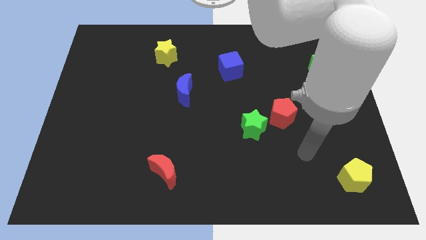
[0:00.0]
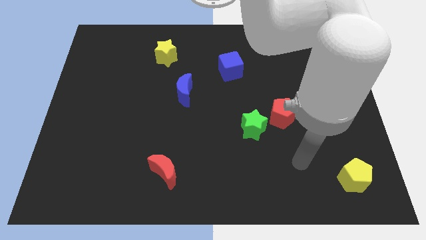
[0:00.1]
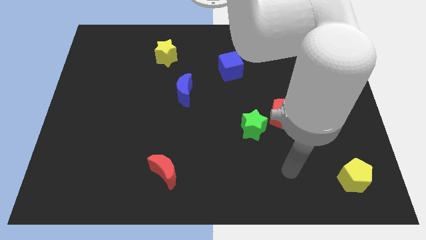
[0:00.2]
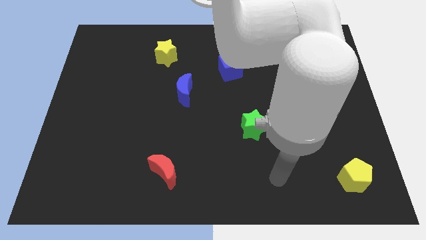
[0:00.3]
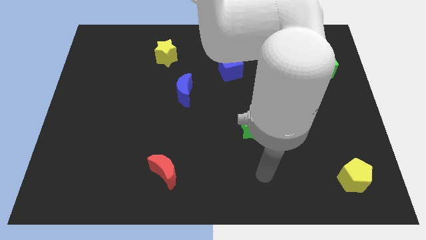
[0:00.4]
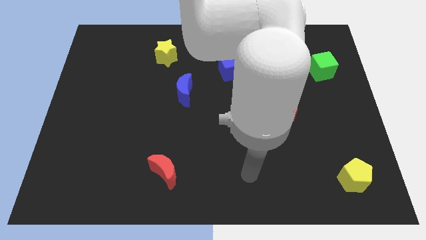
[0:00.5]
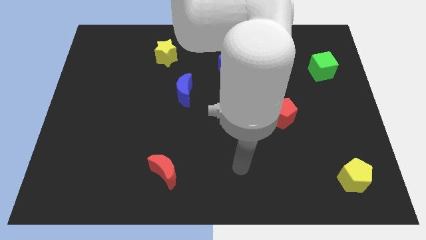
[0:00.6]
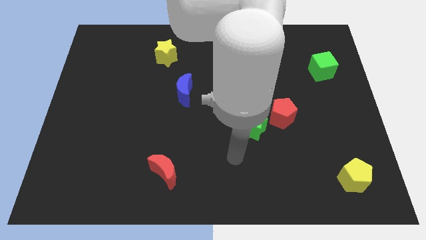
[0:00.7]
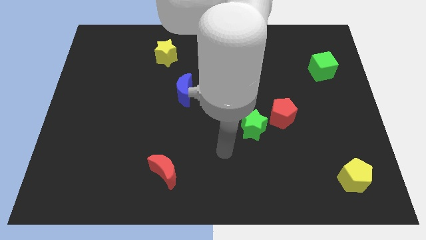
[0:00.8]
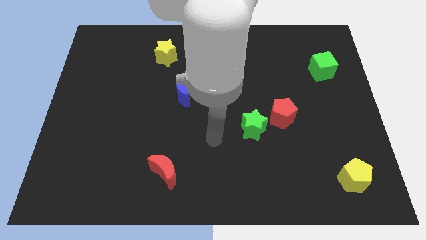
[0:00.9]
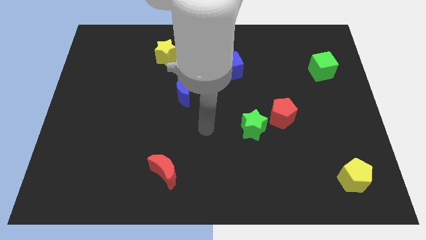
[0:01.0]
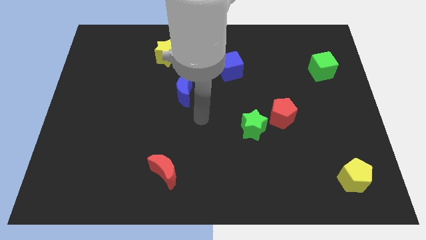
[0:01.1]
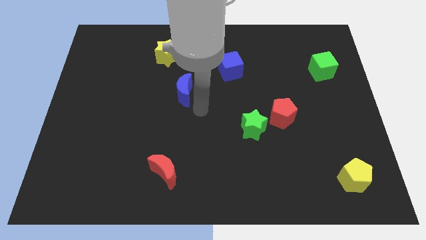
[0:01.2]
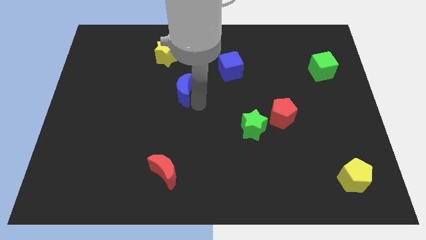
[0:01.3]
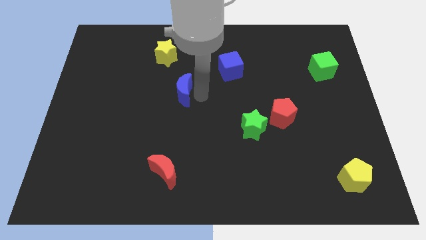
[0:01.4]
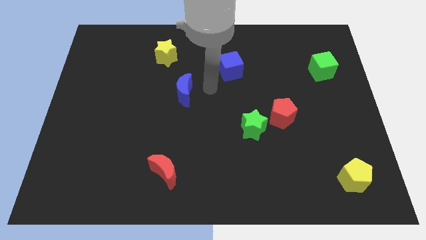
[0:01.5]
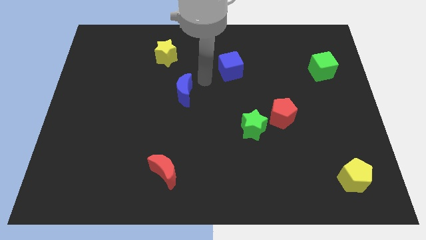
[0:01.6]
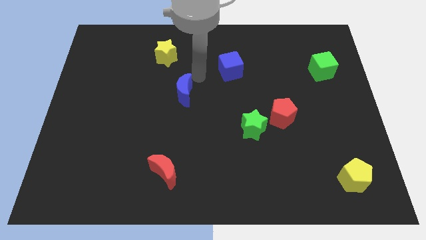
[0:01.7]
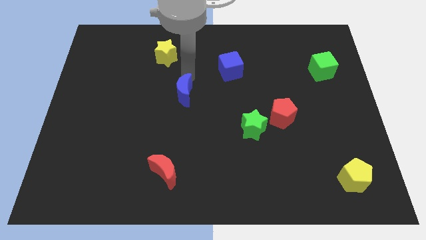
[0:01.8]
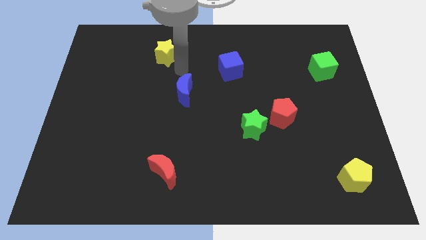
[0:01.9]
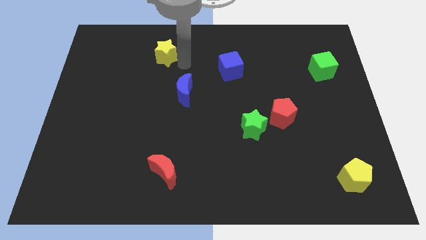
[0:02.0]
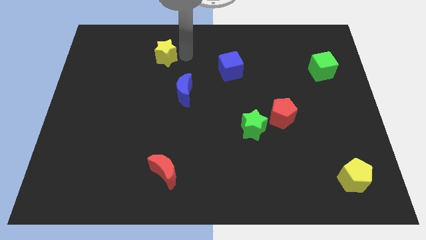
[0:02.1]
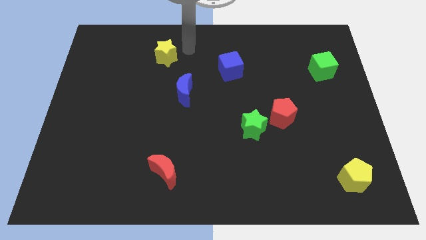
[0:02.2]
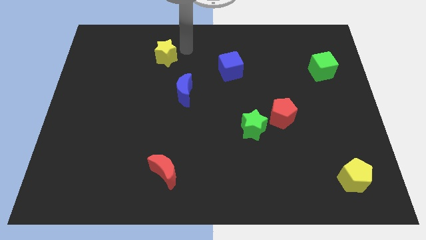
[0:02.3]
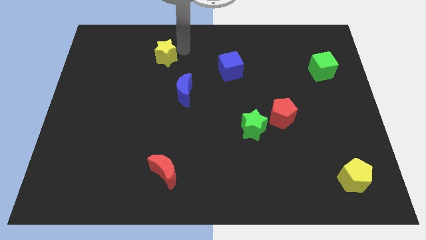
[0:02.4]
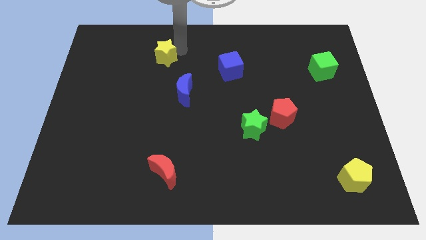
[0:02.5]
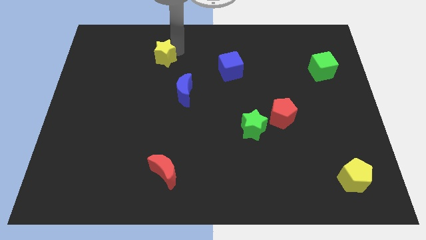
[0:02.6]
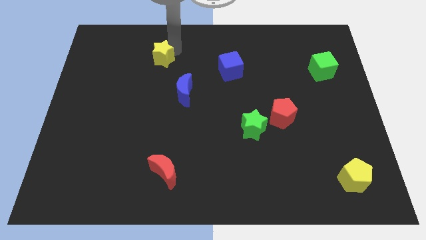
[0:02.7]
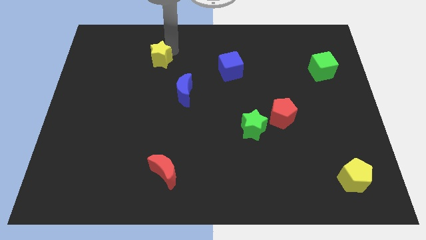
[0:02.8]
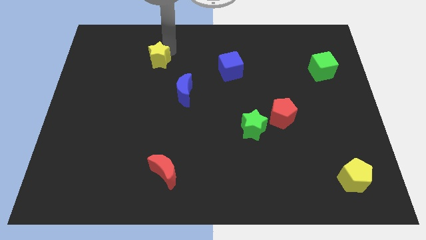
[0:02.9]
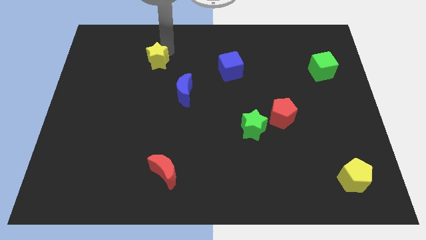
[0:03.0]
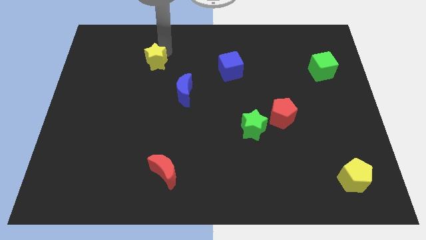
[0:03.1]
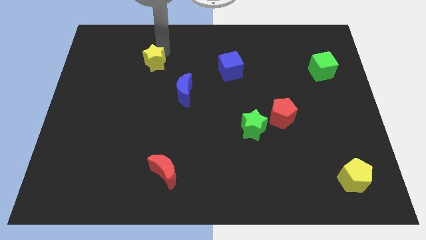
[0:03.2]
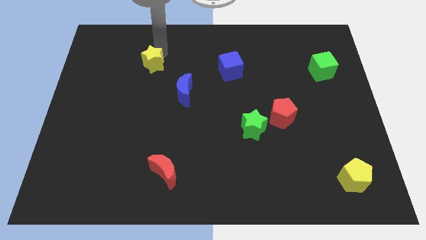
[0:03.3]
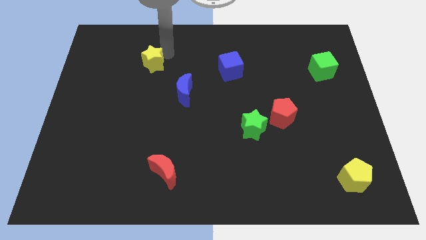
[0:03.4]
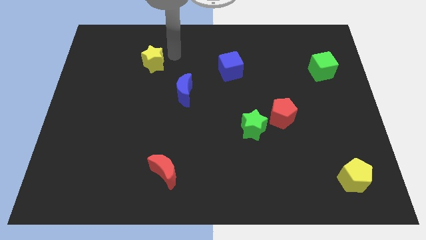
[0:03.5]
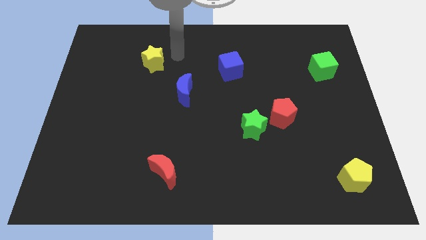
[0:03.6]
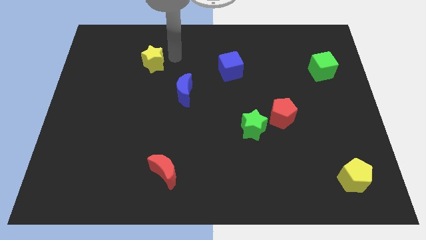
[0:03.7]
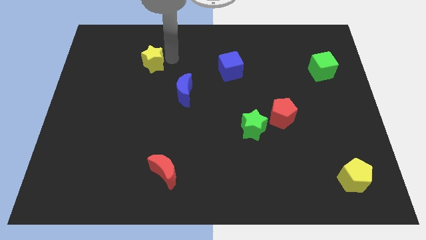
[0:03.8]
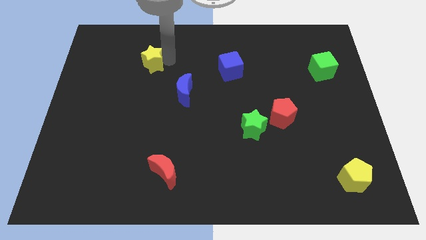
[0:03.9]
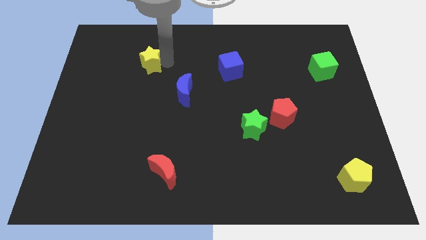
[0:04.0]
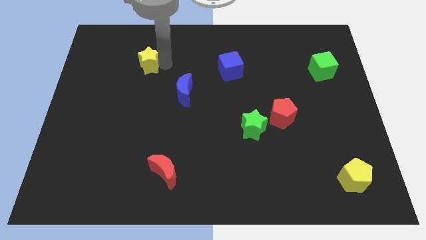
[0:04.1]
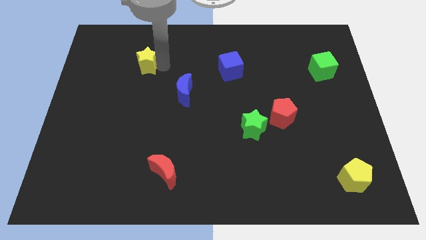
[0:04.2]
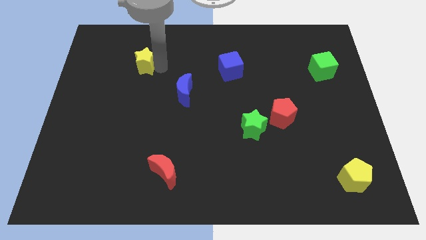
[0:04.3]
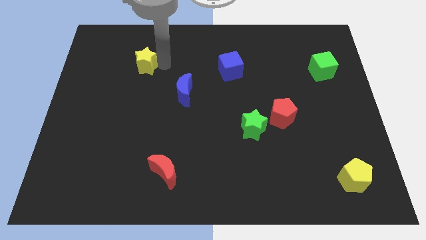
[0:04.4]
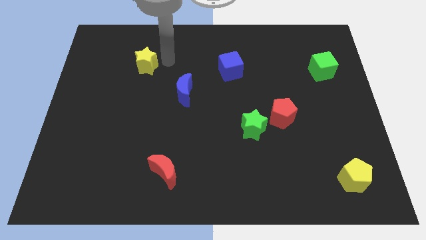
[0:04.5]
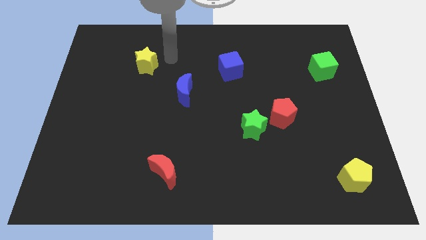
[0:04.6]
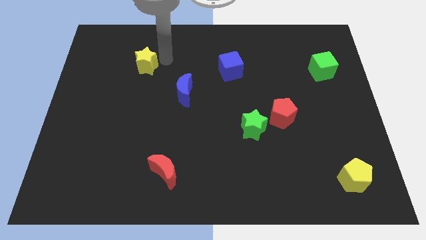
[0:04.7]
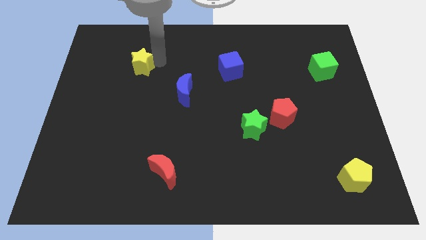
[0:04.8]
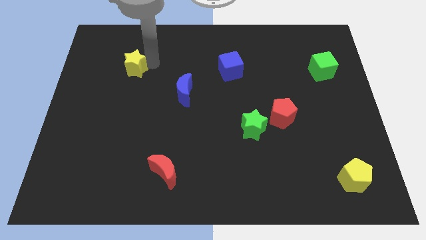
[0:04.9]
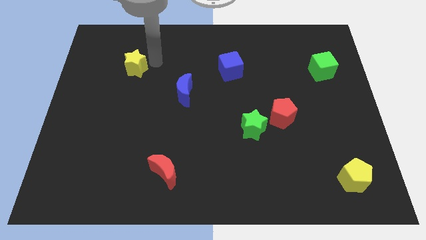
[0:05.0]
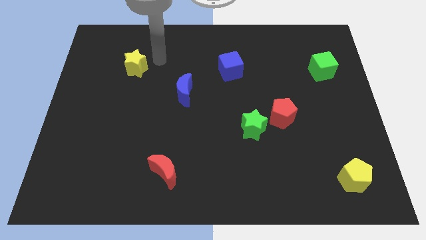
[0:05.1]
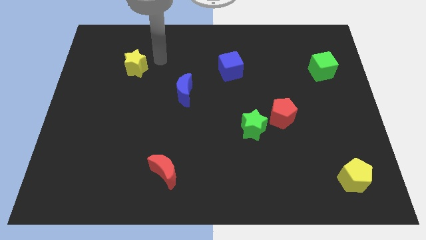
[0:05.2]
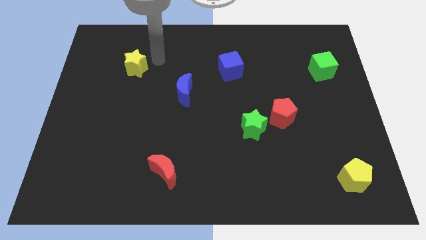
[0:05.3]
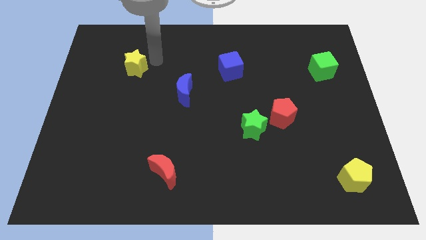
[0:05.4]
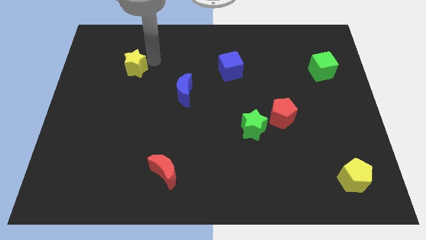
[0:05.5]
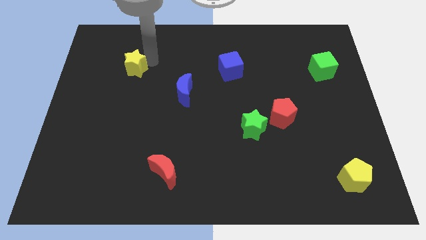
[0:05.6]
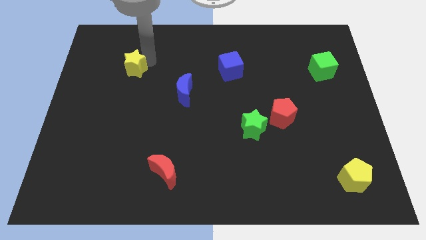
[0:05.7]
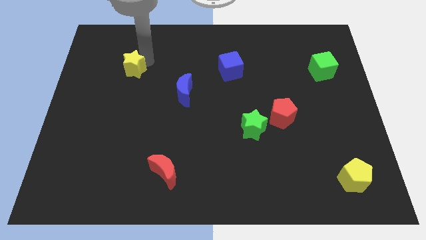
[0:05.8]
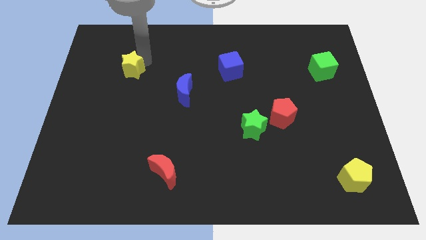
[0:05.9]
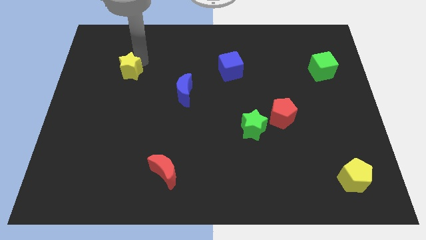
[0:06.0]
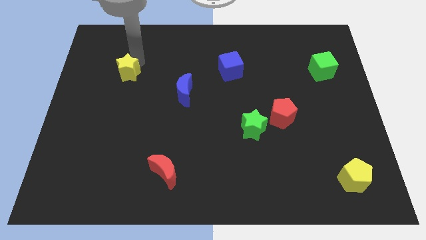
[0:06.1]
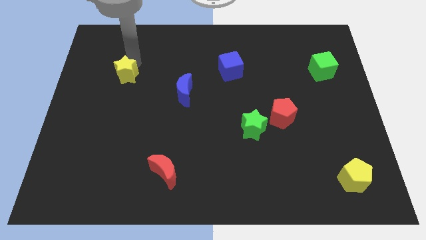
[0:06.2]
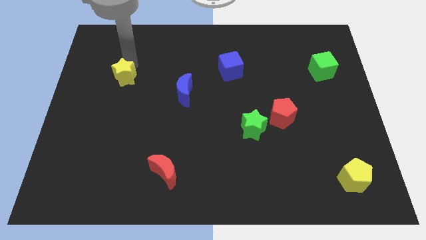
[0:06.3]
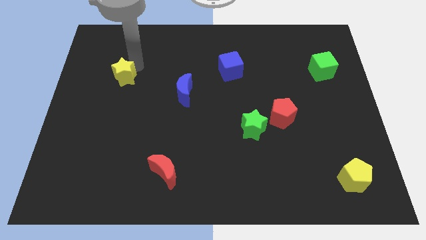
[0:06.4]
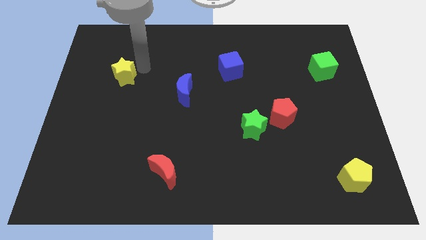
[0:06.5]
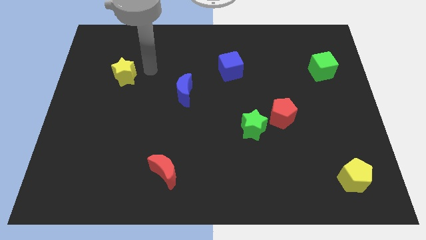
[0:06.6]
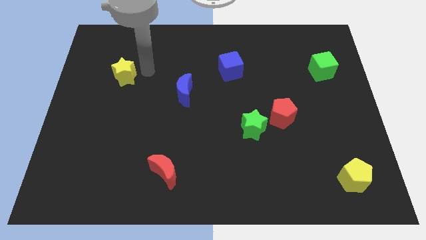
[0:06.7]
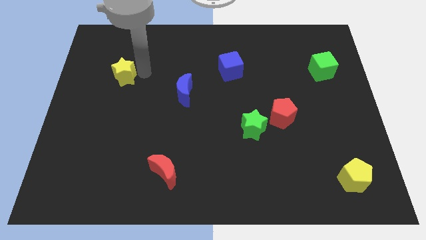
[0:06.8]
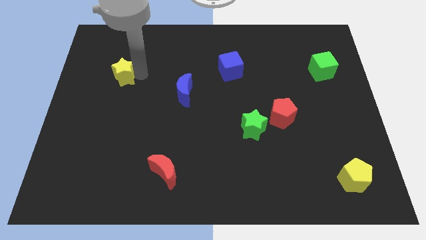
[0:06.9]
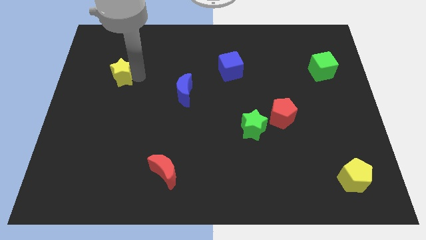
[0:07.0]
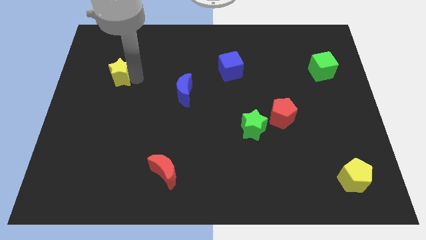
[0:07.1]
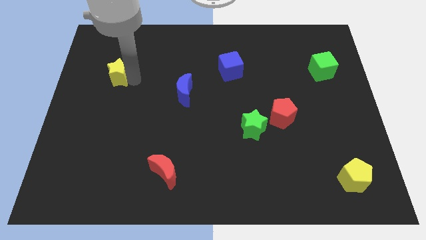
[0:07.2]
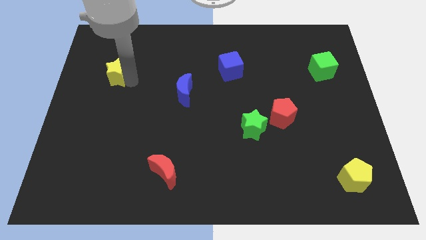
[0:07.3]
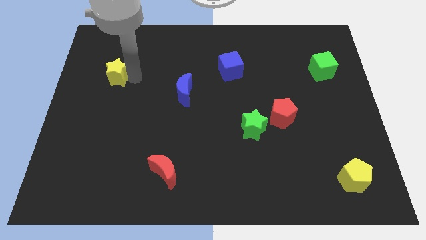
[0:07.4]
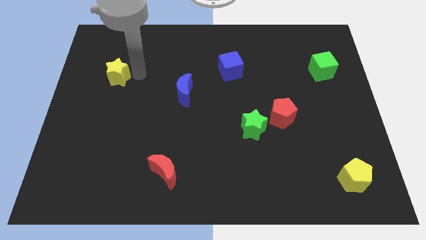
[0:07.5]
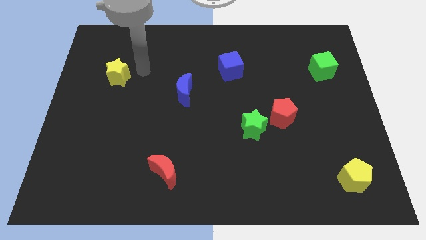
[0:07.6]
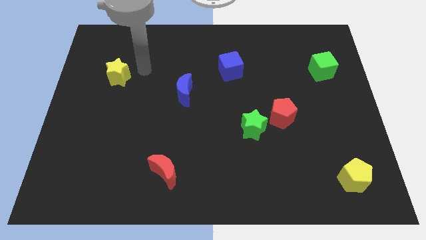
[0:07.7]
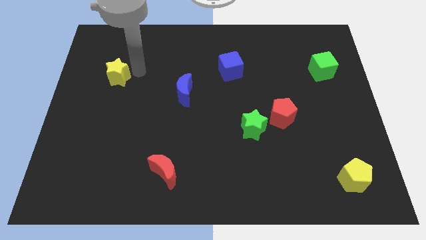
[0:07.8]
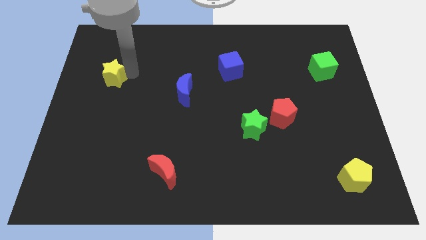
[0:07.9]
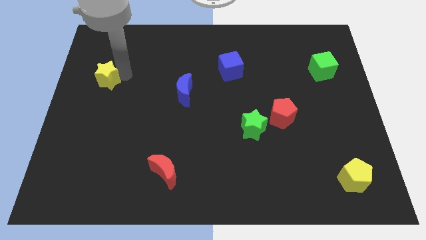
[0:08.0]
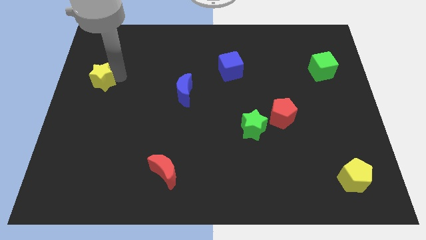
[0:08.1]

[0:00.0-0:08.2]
push the yellow star to the left side of the board
